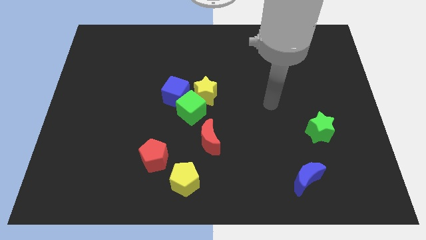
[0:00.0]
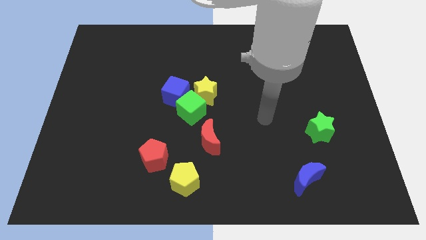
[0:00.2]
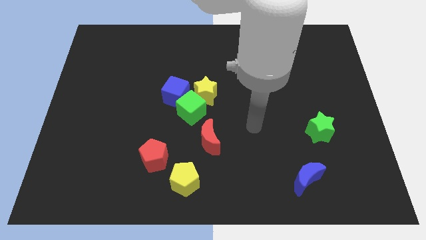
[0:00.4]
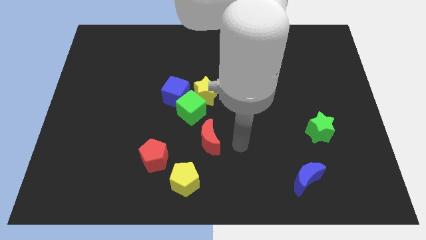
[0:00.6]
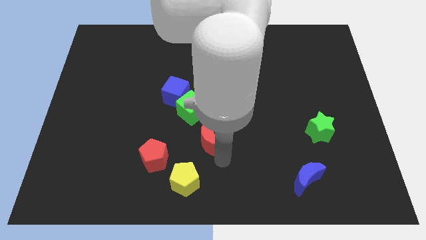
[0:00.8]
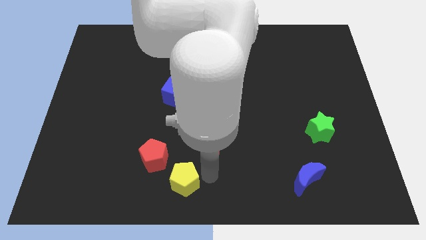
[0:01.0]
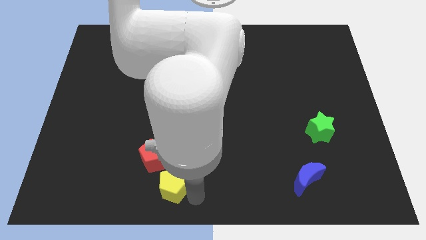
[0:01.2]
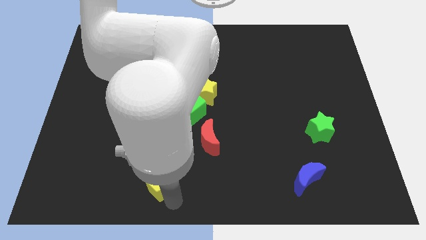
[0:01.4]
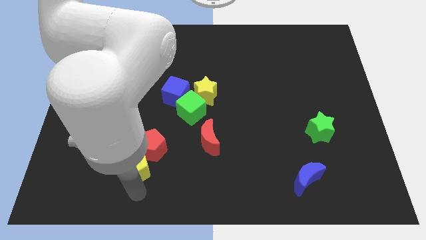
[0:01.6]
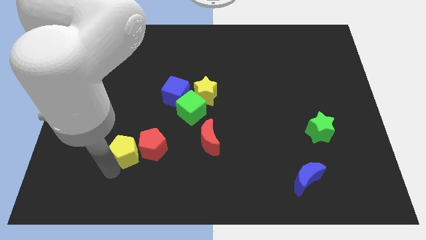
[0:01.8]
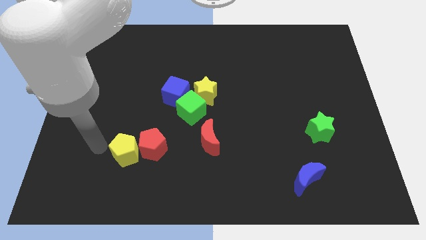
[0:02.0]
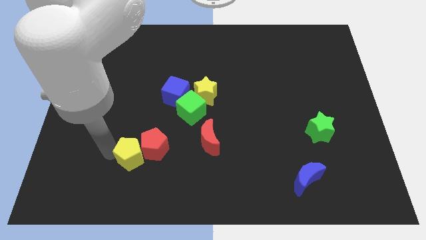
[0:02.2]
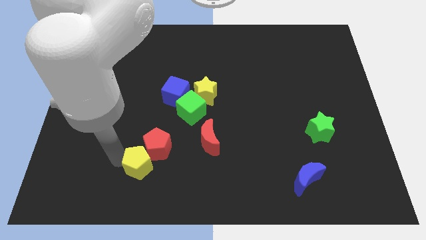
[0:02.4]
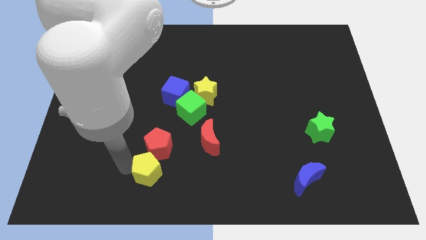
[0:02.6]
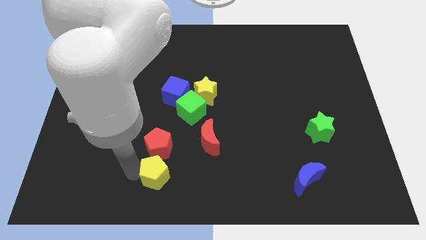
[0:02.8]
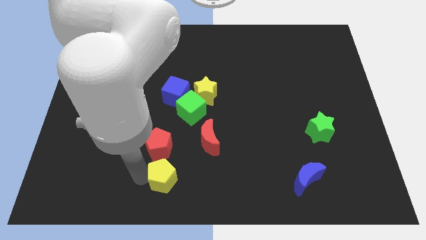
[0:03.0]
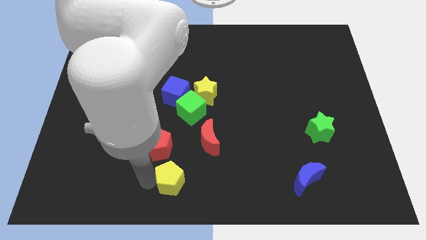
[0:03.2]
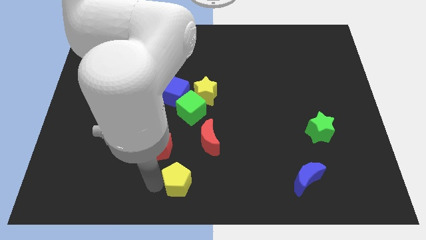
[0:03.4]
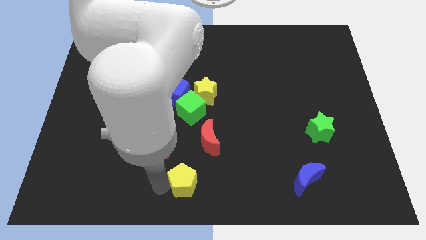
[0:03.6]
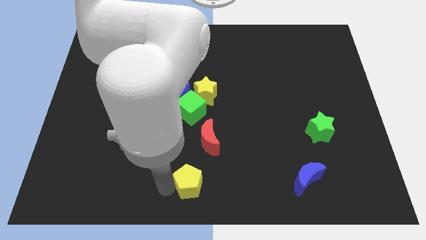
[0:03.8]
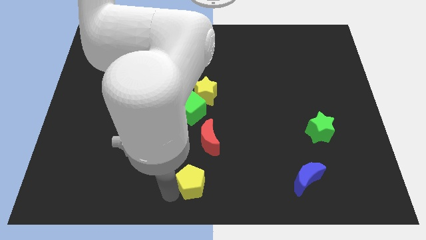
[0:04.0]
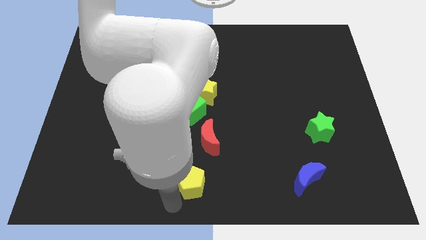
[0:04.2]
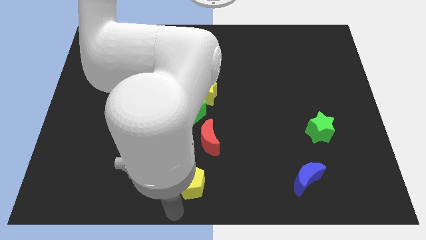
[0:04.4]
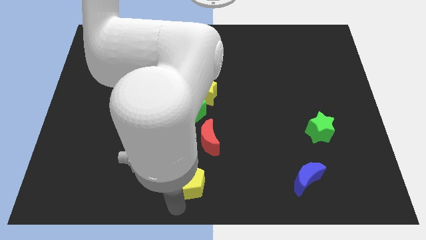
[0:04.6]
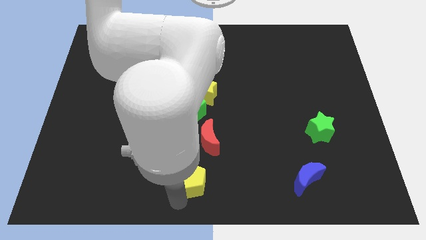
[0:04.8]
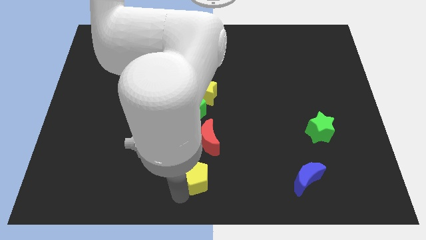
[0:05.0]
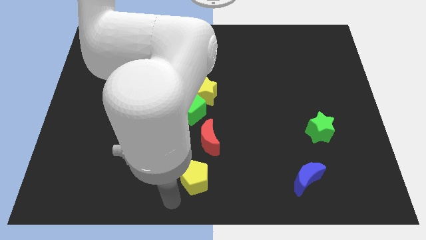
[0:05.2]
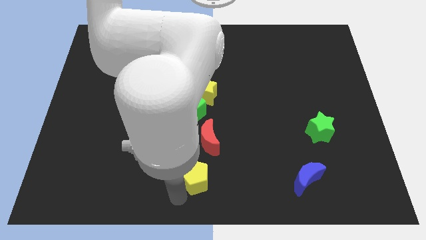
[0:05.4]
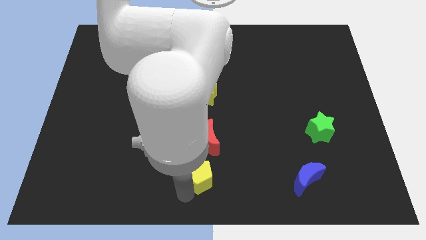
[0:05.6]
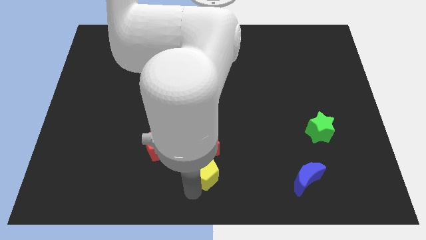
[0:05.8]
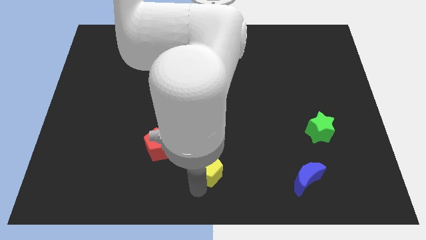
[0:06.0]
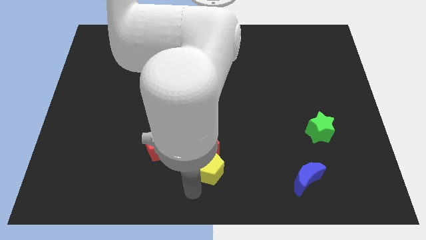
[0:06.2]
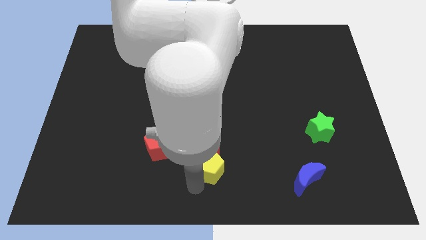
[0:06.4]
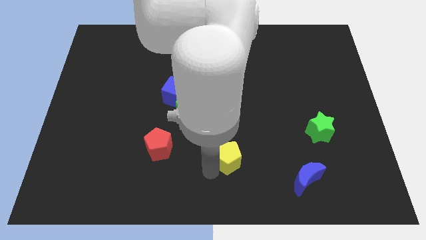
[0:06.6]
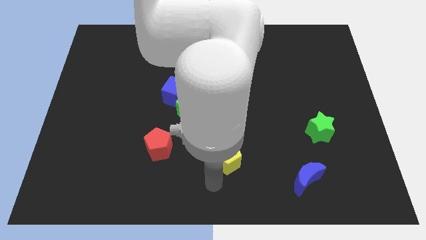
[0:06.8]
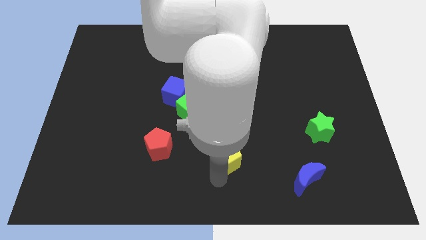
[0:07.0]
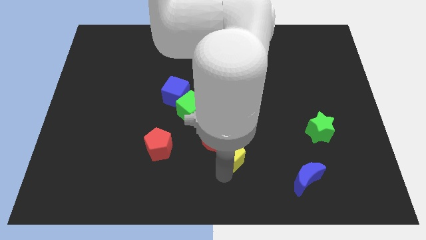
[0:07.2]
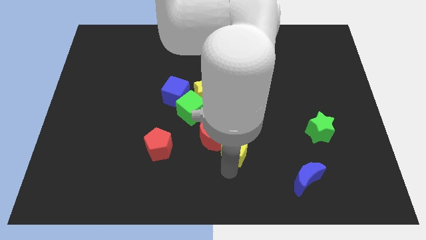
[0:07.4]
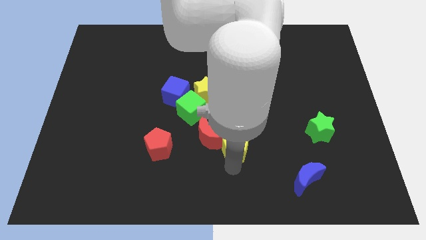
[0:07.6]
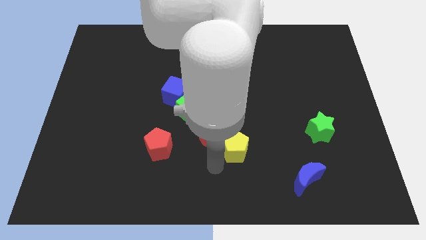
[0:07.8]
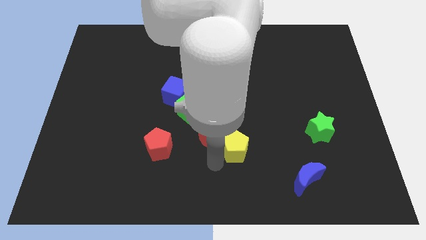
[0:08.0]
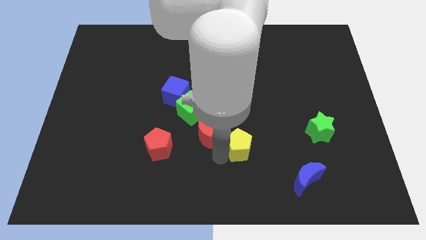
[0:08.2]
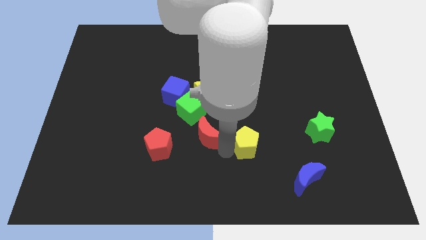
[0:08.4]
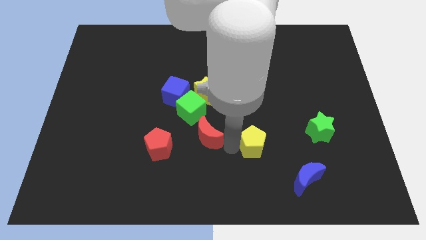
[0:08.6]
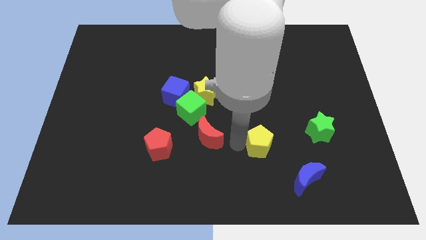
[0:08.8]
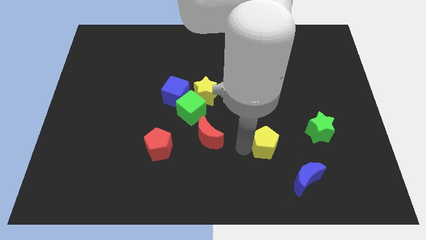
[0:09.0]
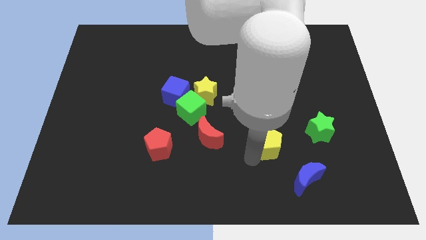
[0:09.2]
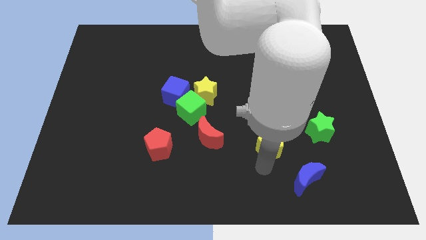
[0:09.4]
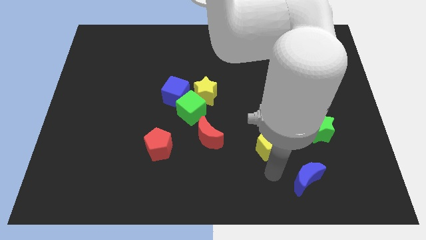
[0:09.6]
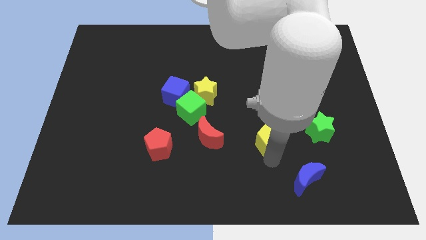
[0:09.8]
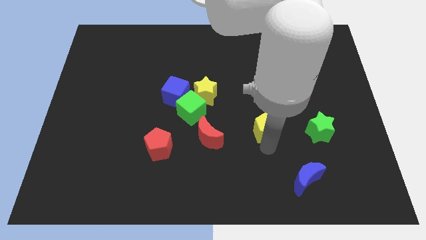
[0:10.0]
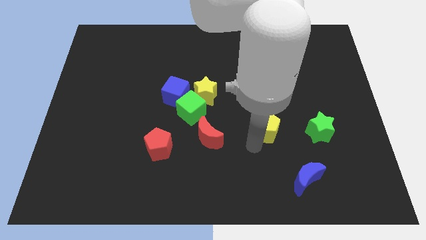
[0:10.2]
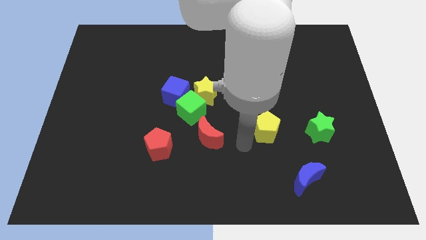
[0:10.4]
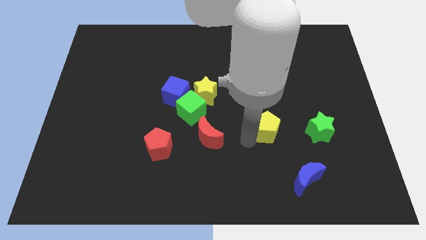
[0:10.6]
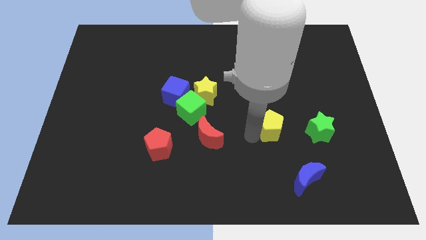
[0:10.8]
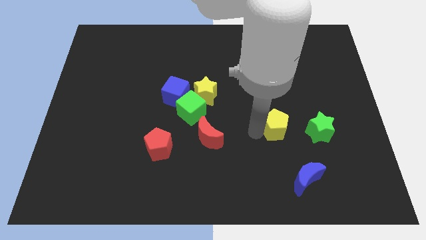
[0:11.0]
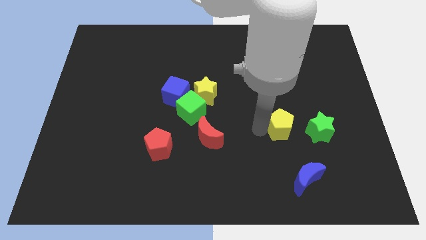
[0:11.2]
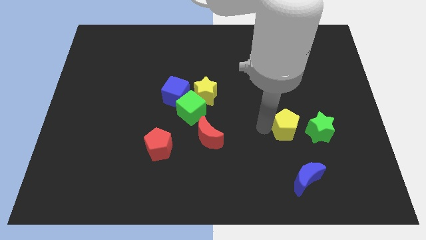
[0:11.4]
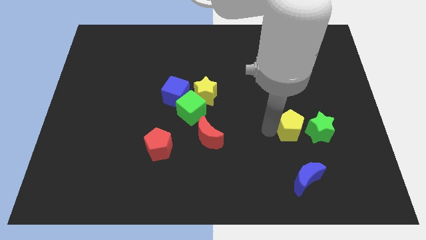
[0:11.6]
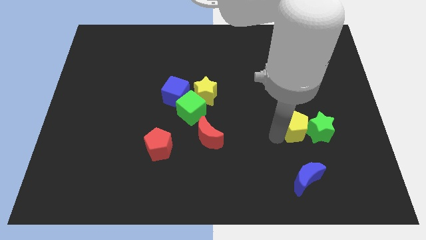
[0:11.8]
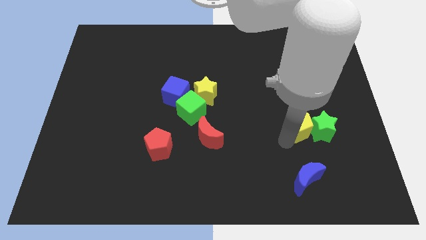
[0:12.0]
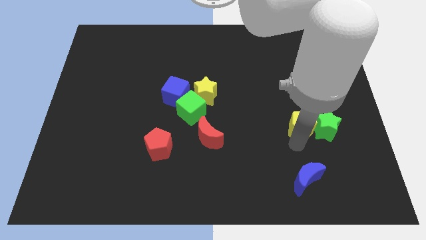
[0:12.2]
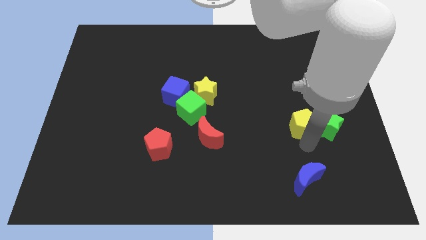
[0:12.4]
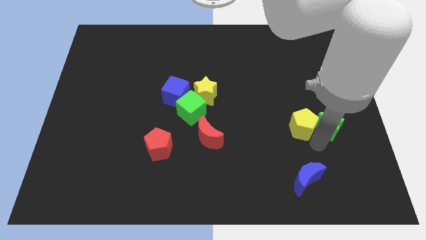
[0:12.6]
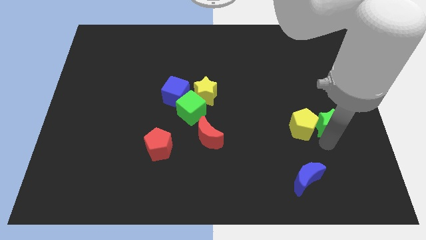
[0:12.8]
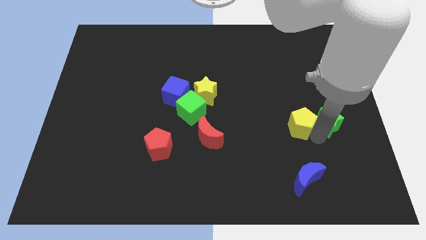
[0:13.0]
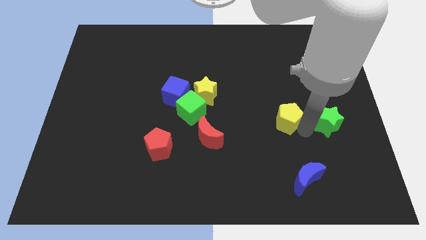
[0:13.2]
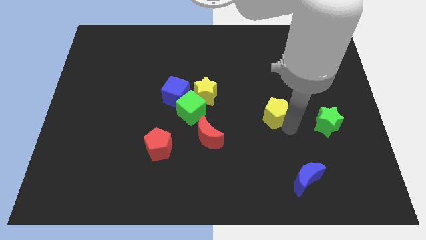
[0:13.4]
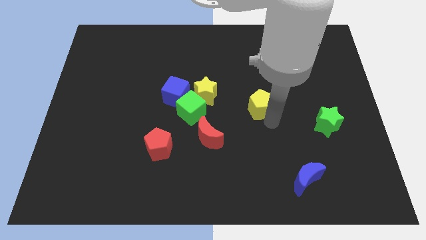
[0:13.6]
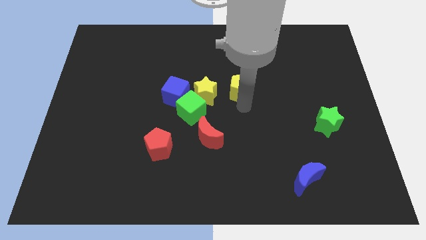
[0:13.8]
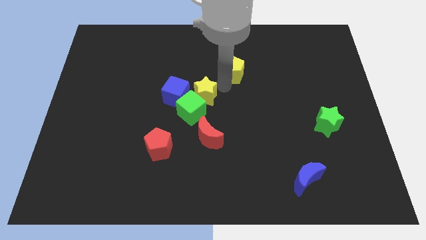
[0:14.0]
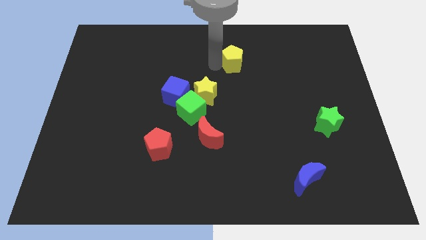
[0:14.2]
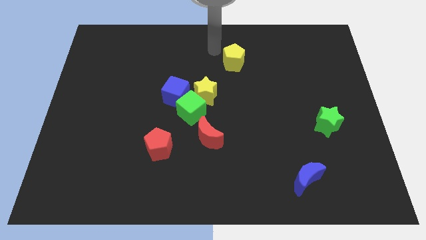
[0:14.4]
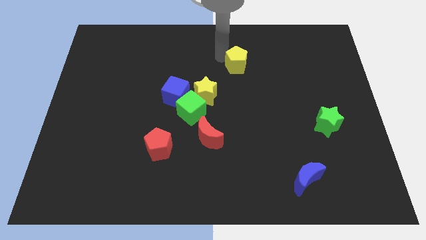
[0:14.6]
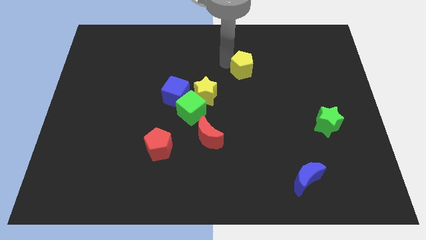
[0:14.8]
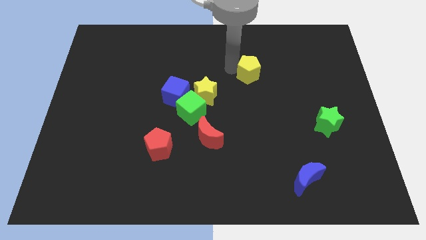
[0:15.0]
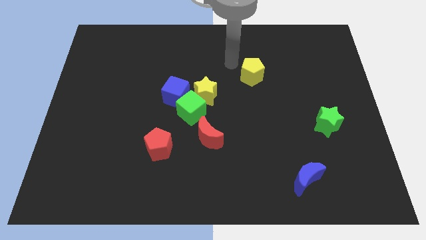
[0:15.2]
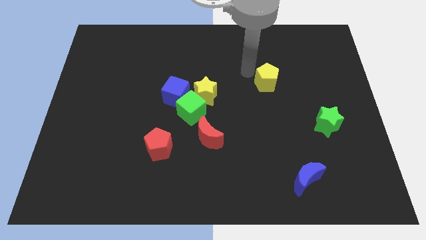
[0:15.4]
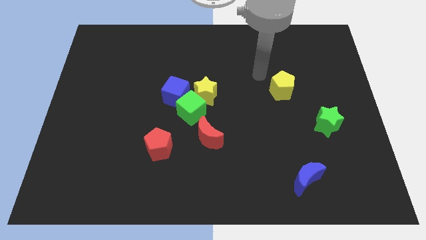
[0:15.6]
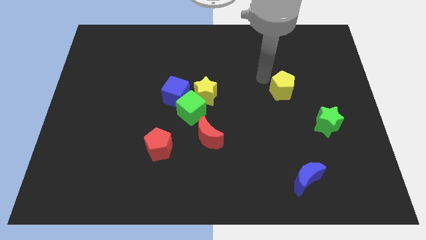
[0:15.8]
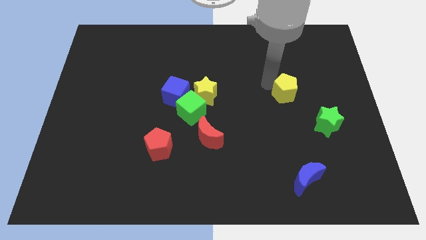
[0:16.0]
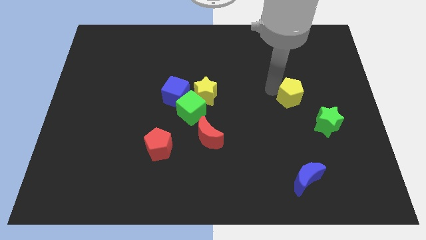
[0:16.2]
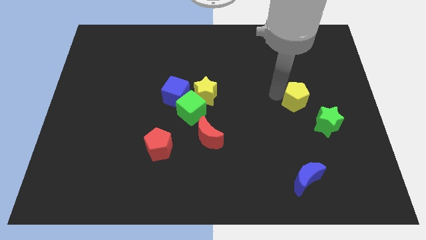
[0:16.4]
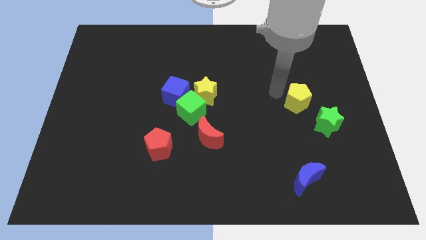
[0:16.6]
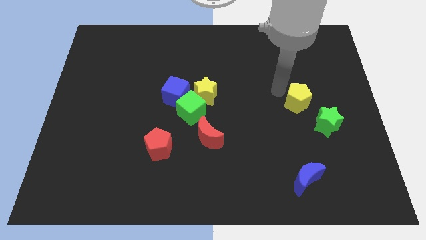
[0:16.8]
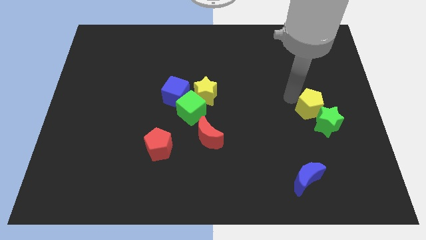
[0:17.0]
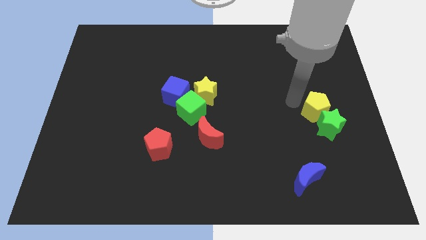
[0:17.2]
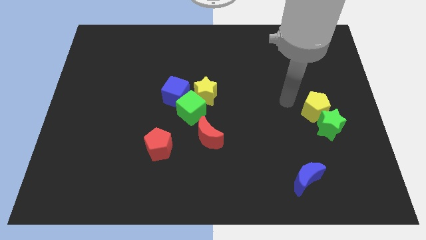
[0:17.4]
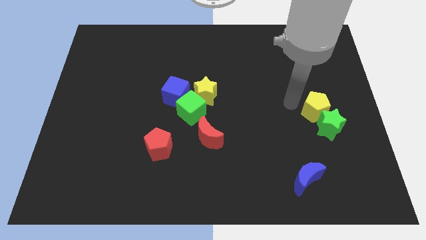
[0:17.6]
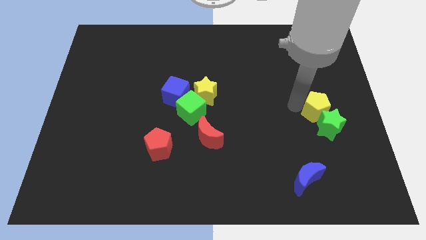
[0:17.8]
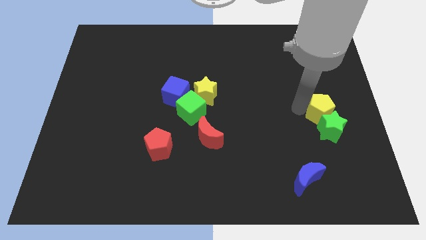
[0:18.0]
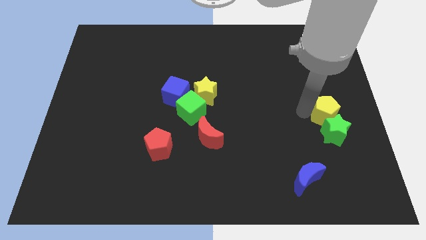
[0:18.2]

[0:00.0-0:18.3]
slide the yellow pentagon to the center right
